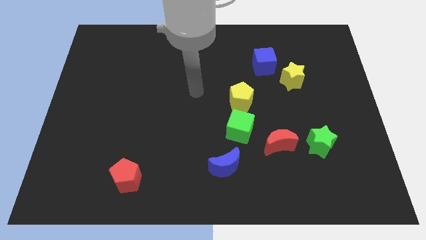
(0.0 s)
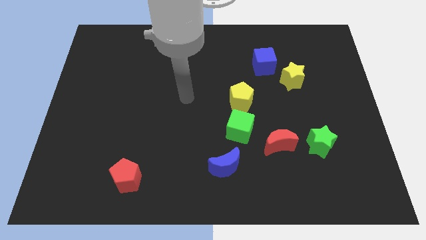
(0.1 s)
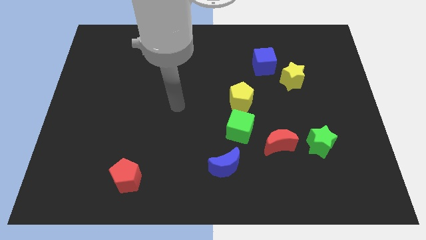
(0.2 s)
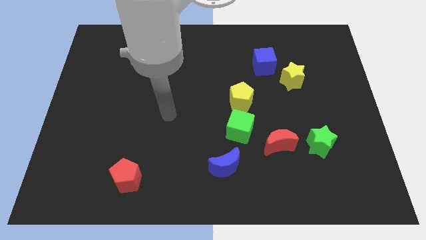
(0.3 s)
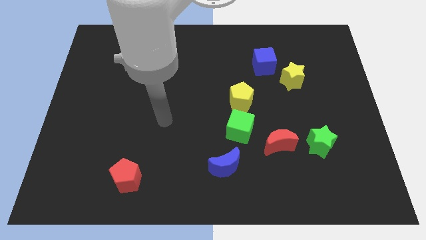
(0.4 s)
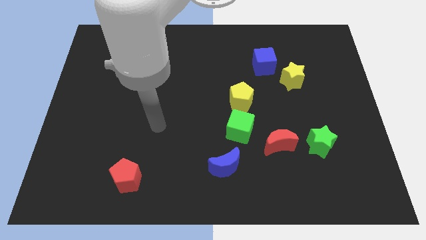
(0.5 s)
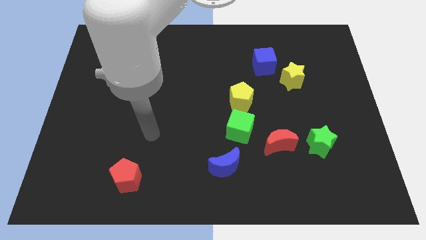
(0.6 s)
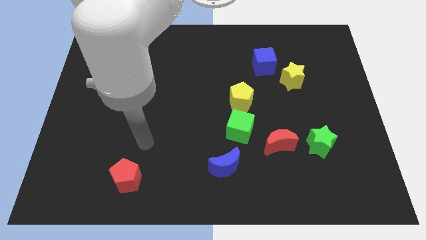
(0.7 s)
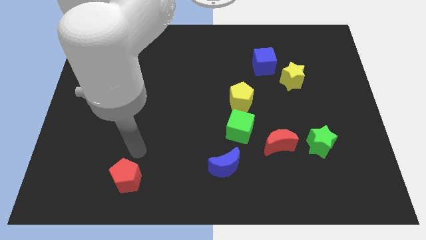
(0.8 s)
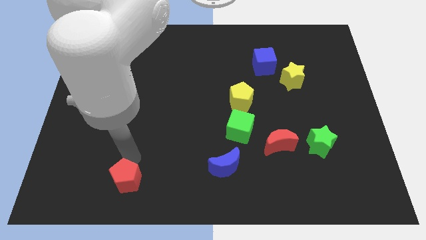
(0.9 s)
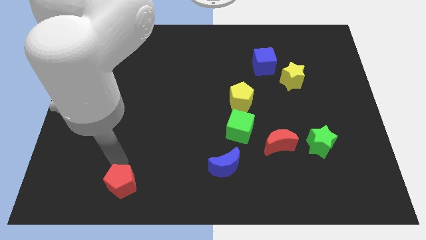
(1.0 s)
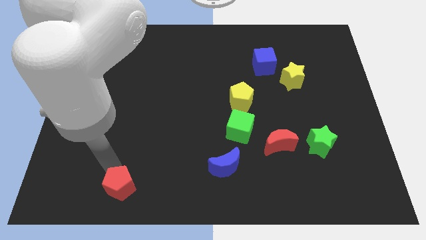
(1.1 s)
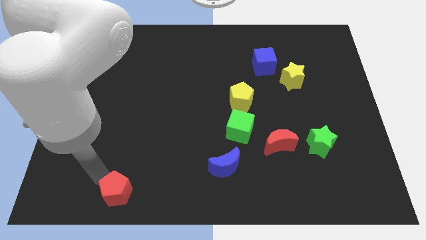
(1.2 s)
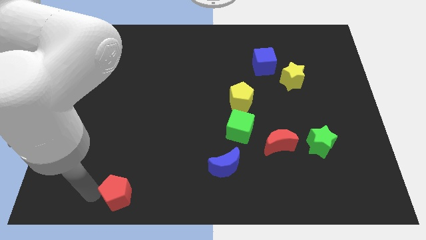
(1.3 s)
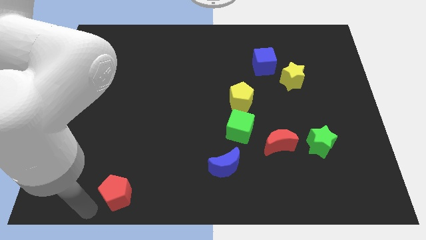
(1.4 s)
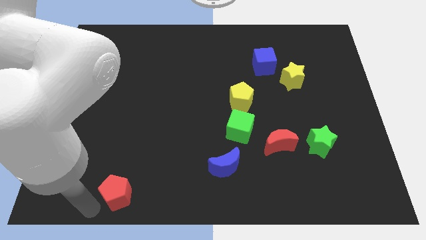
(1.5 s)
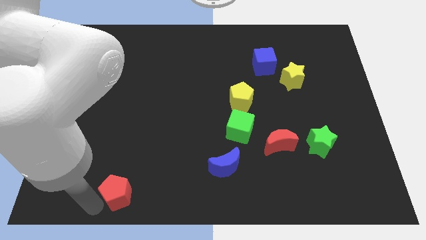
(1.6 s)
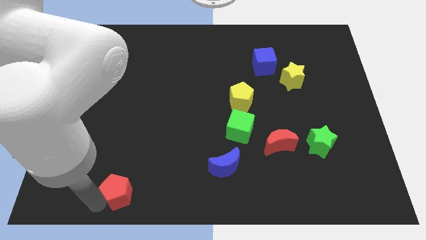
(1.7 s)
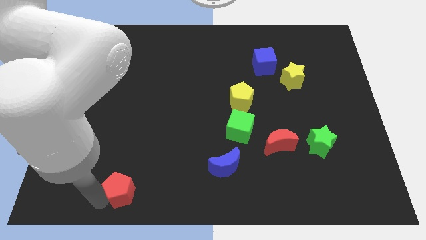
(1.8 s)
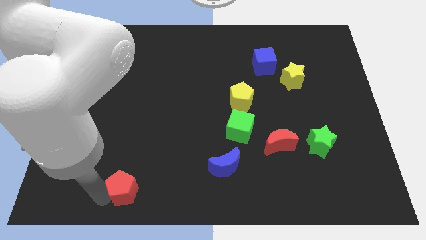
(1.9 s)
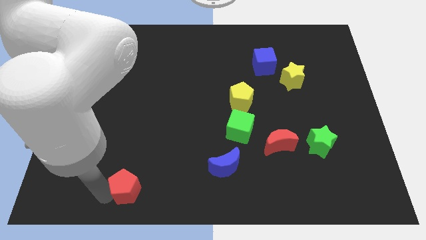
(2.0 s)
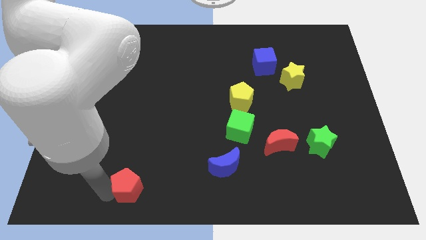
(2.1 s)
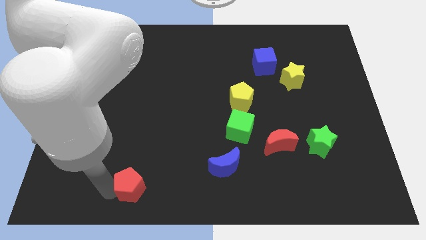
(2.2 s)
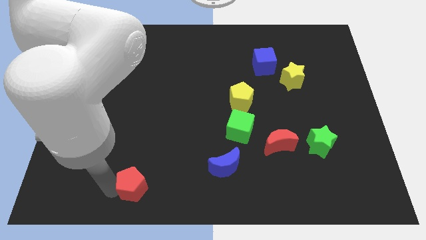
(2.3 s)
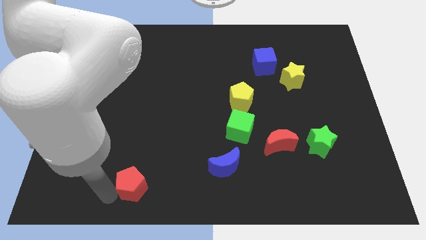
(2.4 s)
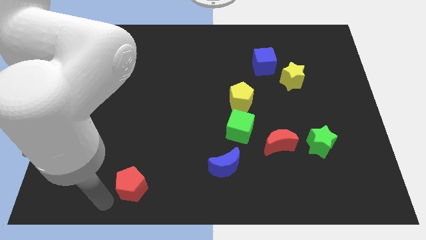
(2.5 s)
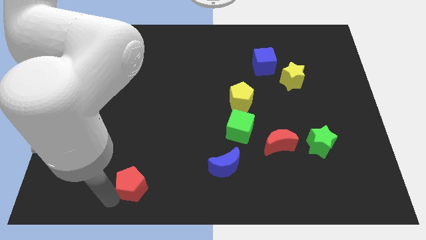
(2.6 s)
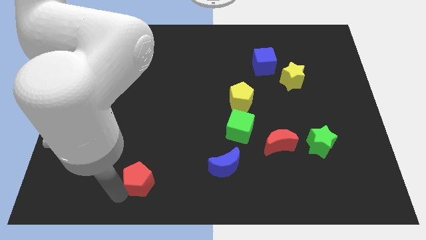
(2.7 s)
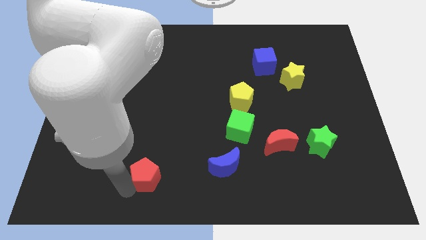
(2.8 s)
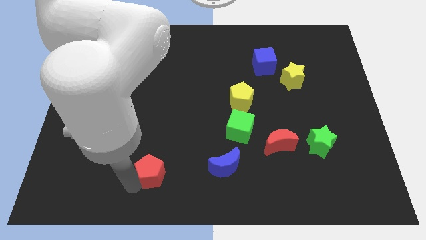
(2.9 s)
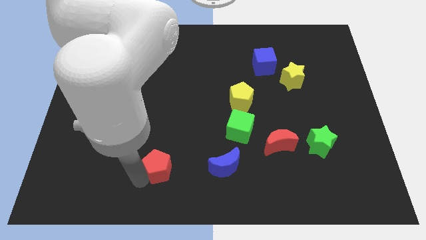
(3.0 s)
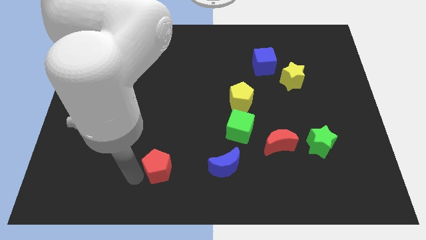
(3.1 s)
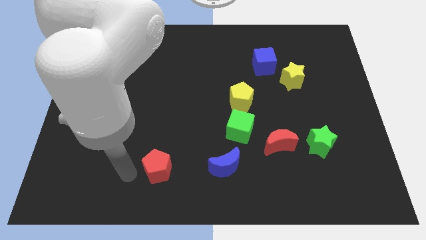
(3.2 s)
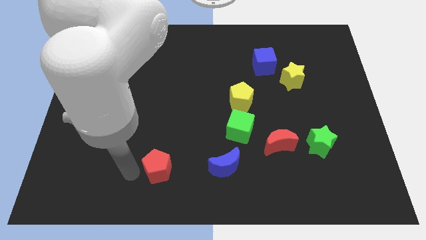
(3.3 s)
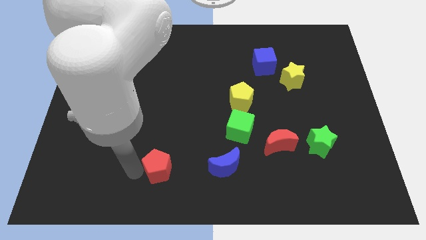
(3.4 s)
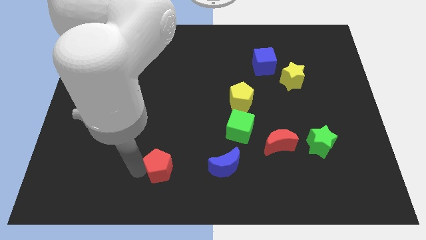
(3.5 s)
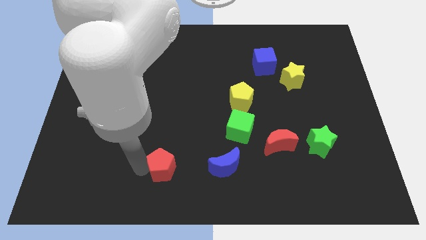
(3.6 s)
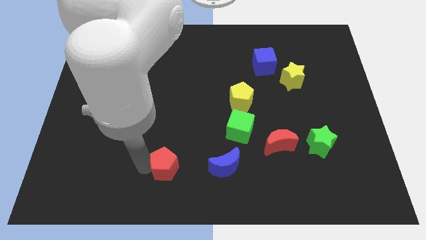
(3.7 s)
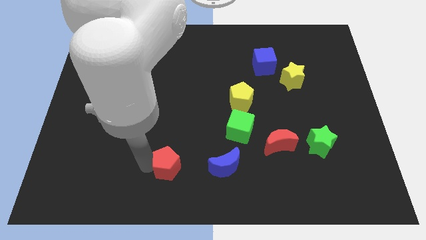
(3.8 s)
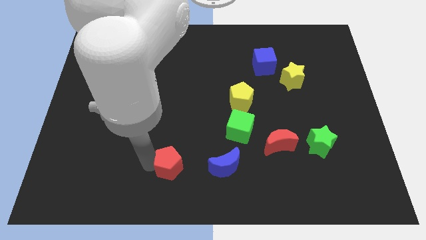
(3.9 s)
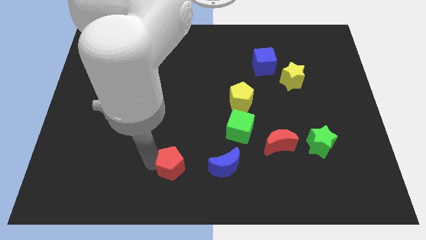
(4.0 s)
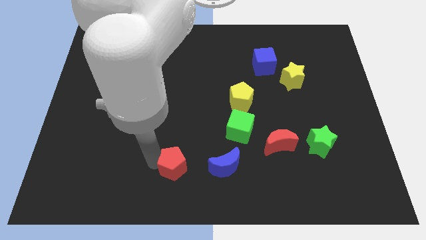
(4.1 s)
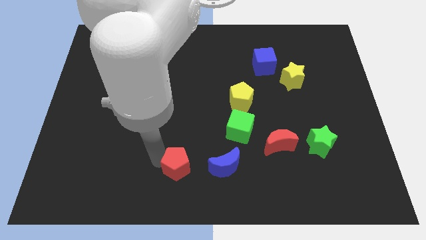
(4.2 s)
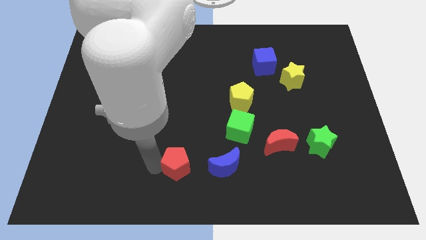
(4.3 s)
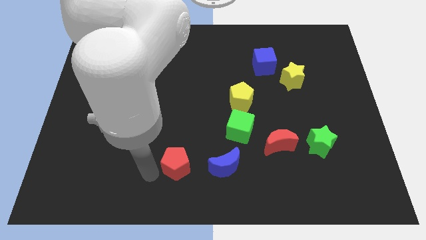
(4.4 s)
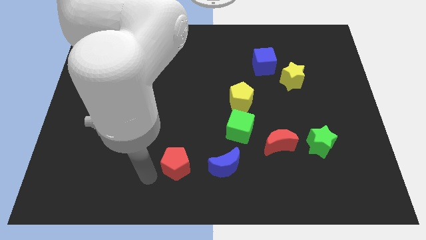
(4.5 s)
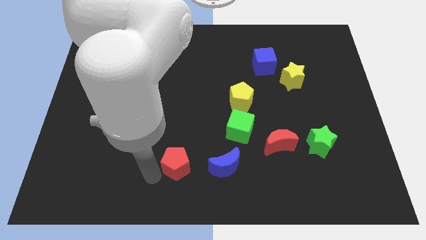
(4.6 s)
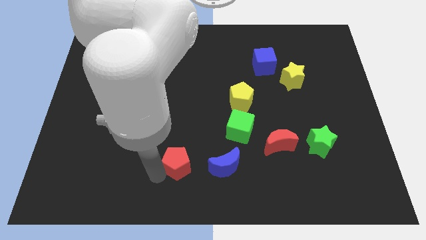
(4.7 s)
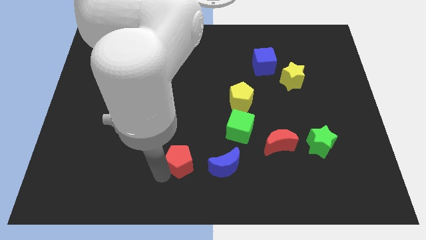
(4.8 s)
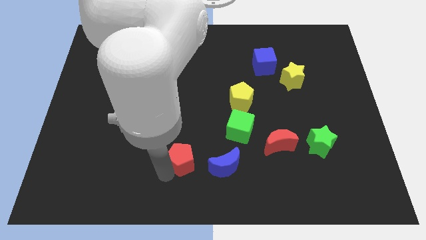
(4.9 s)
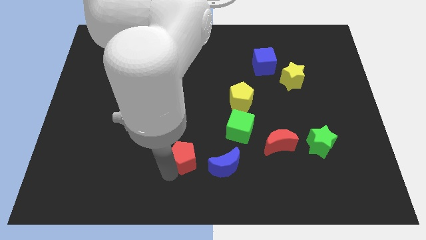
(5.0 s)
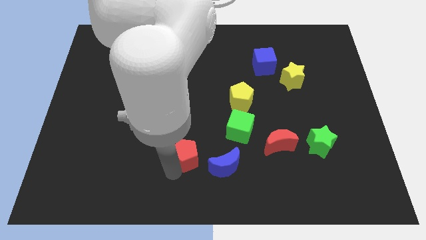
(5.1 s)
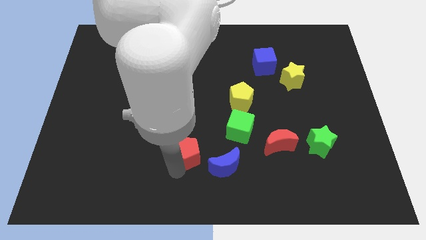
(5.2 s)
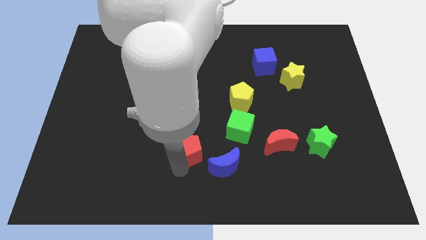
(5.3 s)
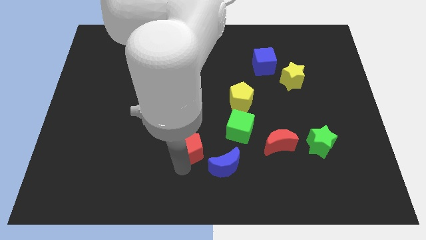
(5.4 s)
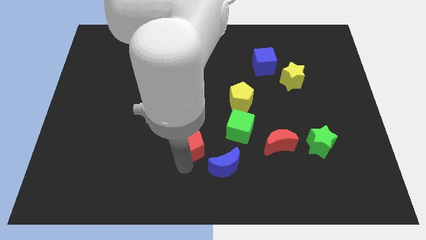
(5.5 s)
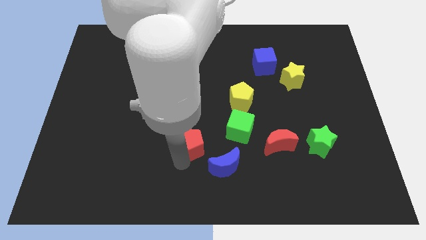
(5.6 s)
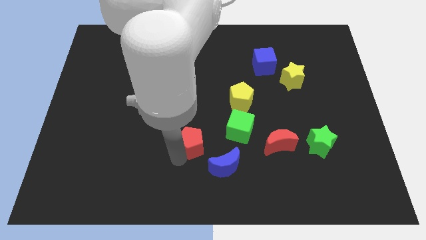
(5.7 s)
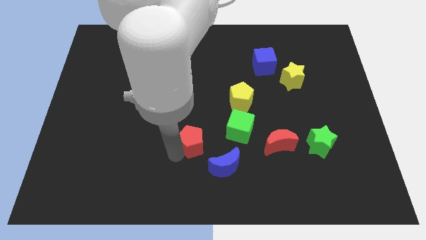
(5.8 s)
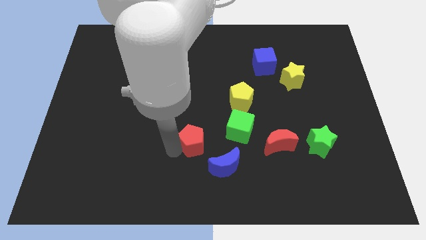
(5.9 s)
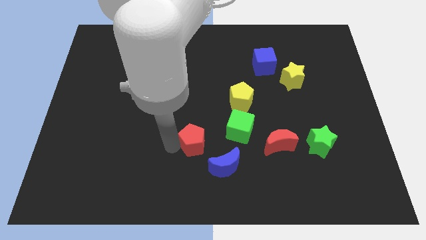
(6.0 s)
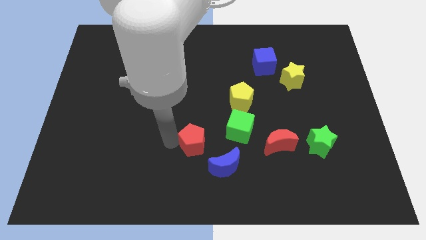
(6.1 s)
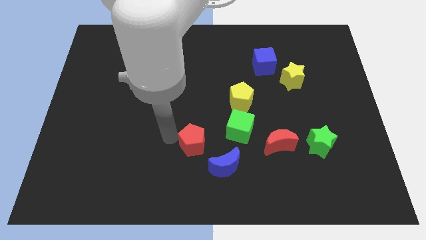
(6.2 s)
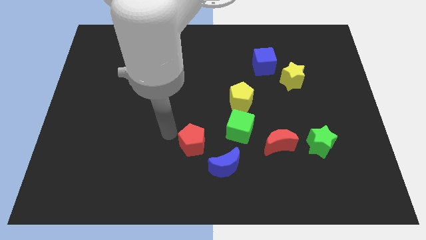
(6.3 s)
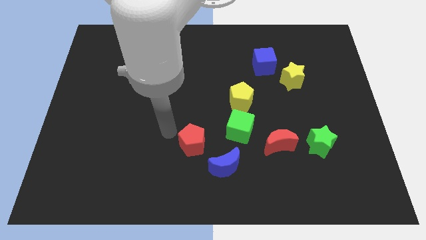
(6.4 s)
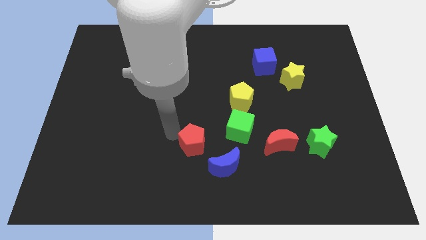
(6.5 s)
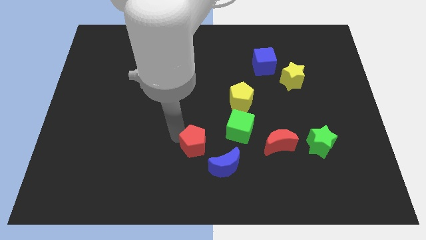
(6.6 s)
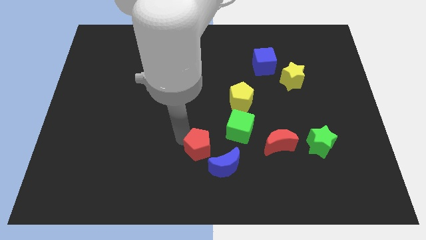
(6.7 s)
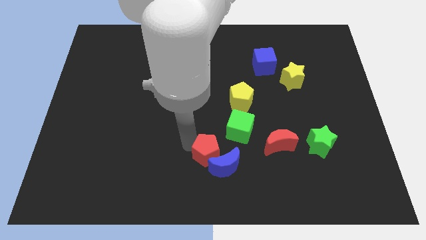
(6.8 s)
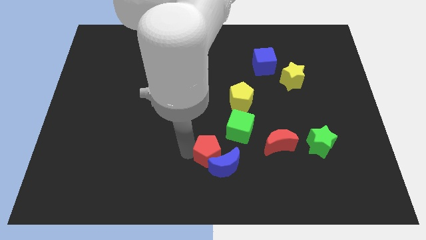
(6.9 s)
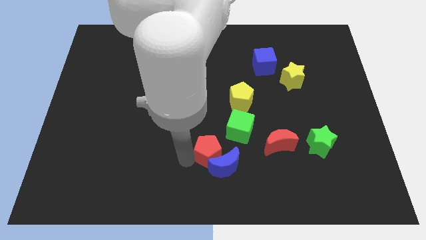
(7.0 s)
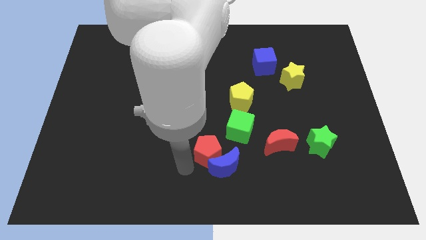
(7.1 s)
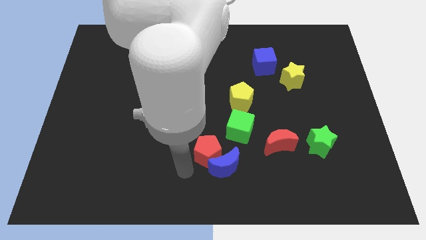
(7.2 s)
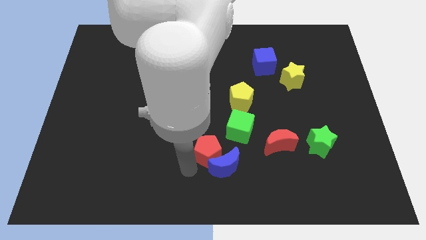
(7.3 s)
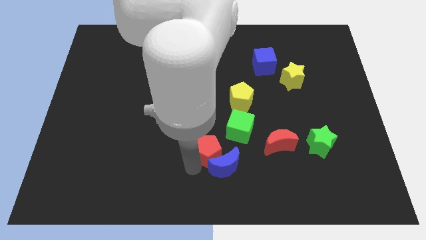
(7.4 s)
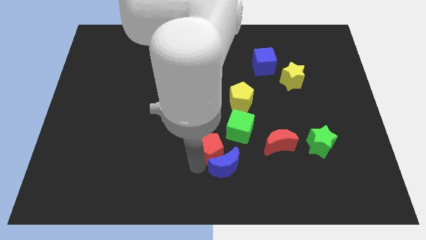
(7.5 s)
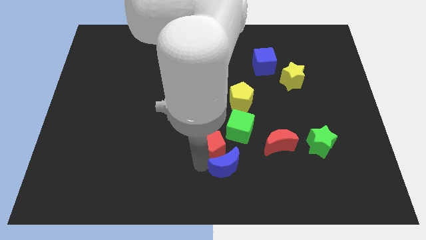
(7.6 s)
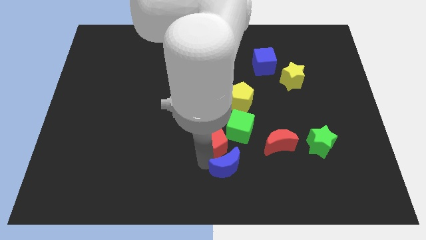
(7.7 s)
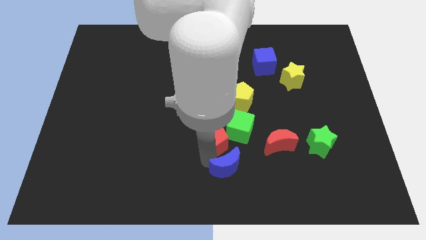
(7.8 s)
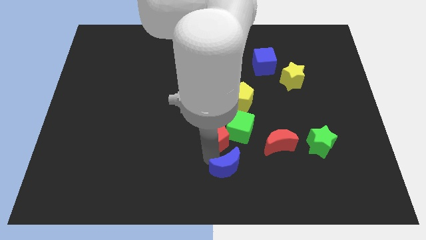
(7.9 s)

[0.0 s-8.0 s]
put the red pentagon close to the green cube
